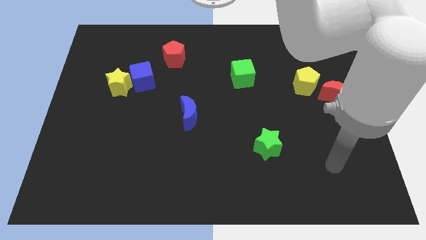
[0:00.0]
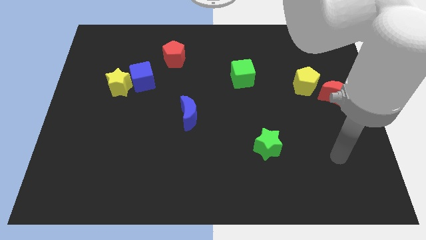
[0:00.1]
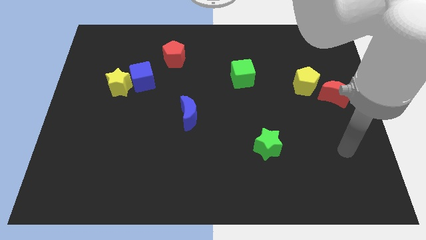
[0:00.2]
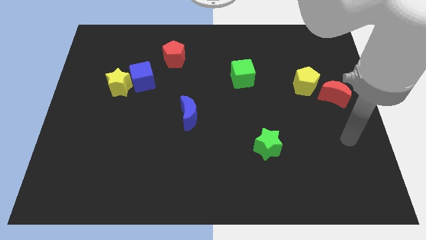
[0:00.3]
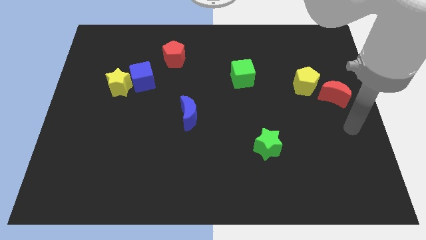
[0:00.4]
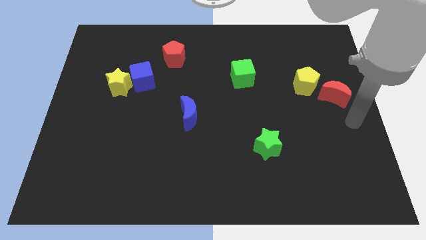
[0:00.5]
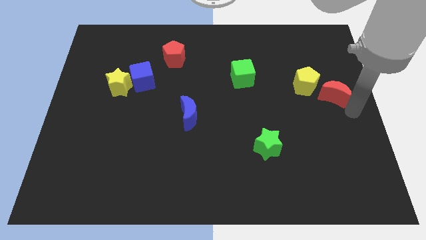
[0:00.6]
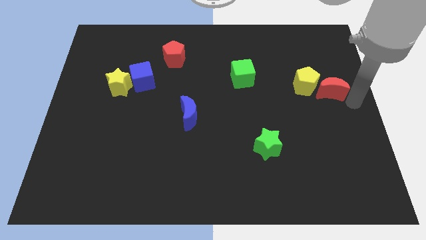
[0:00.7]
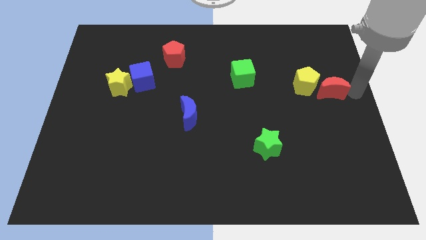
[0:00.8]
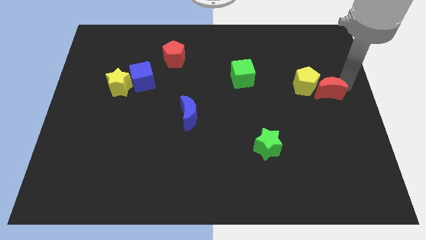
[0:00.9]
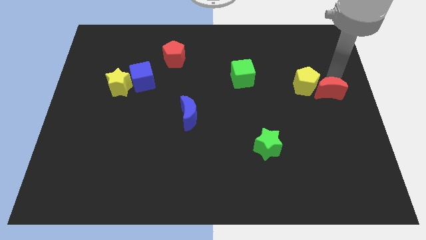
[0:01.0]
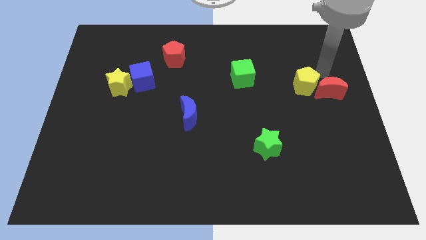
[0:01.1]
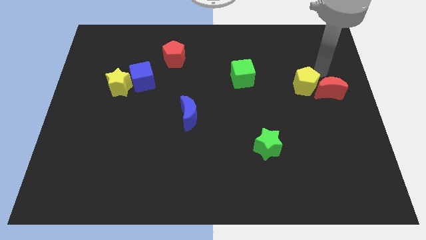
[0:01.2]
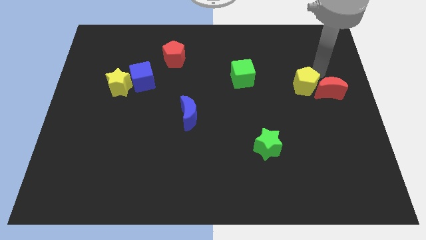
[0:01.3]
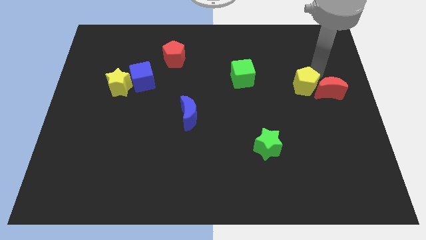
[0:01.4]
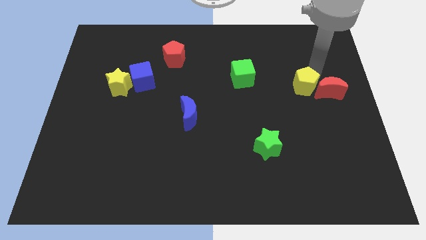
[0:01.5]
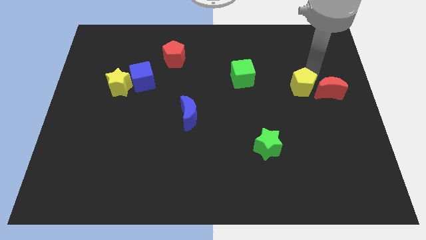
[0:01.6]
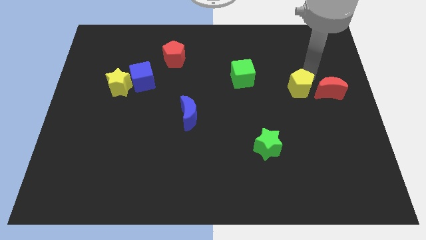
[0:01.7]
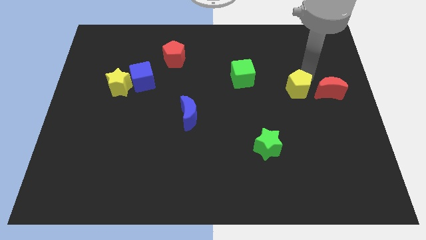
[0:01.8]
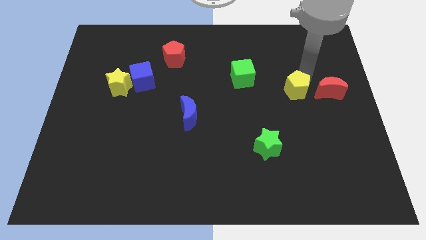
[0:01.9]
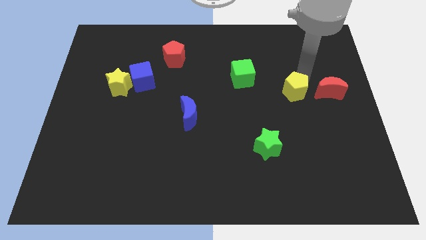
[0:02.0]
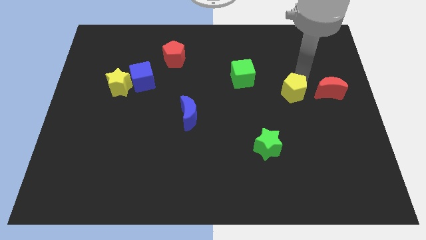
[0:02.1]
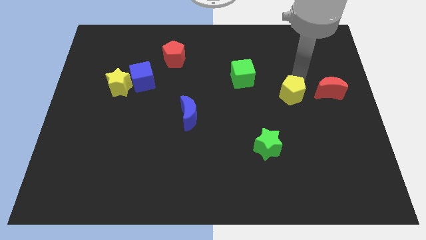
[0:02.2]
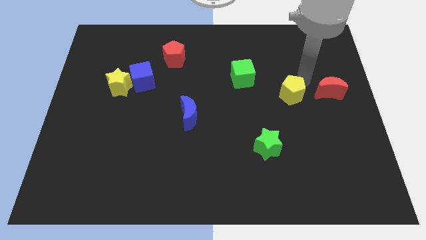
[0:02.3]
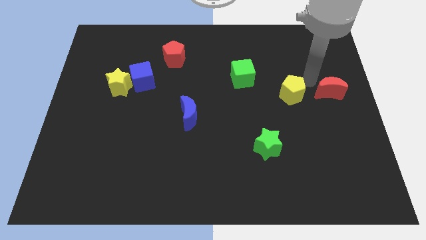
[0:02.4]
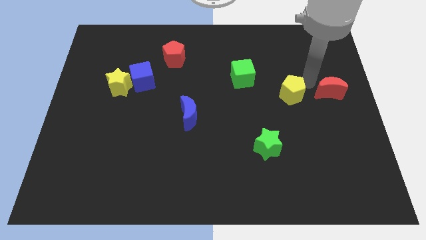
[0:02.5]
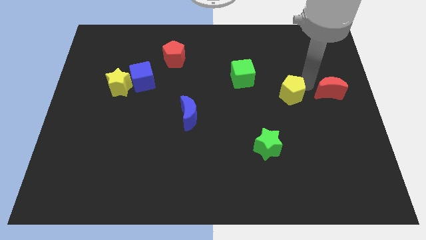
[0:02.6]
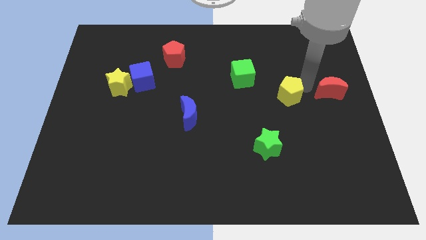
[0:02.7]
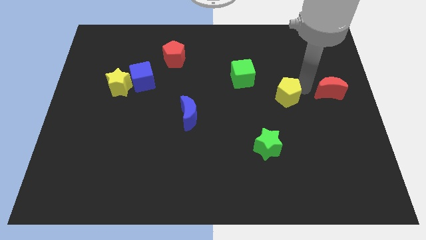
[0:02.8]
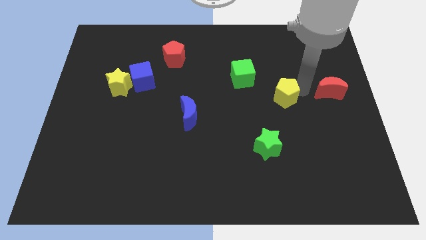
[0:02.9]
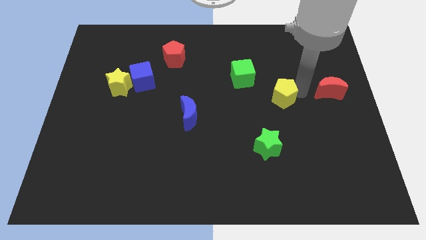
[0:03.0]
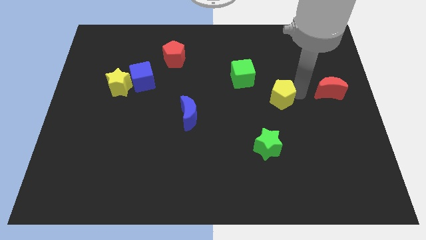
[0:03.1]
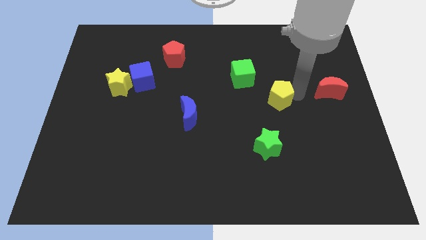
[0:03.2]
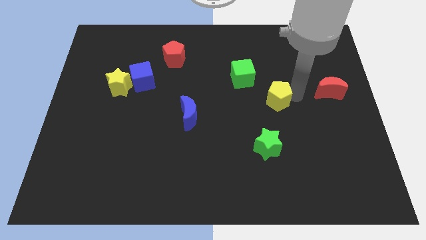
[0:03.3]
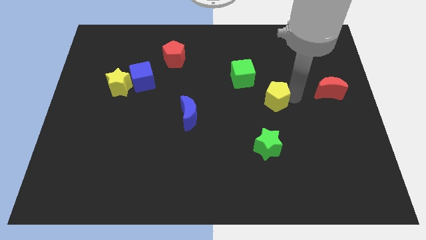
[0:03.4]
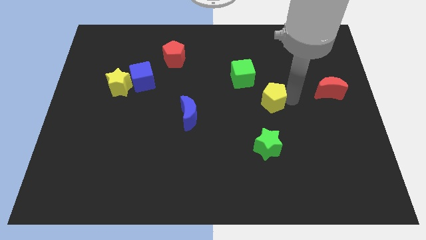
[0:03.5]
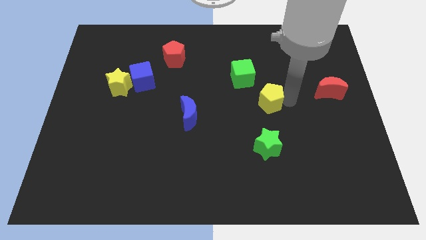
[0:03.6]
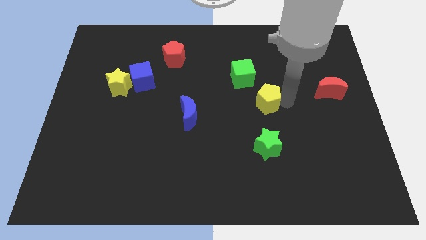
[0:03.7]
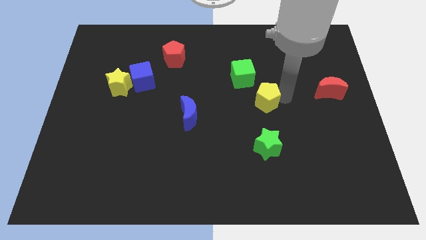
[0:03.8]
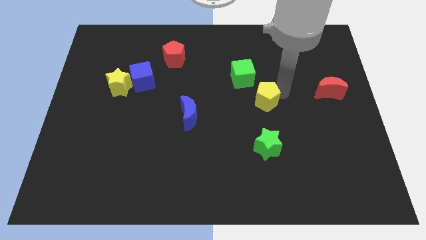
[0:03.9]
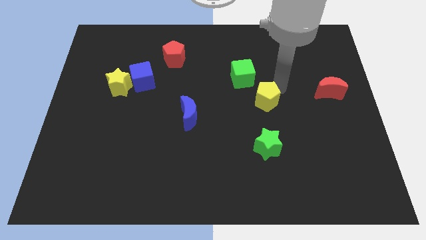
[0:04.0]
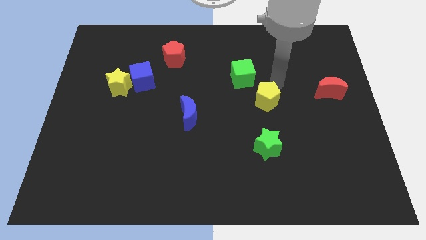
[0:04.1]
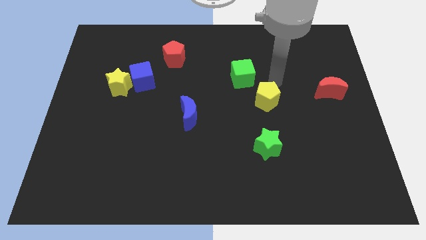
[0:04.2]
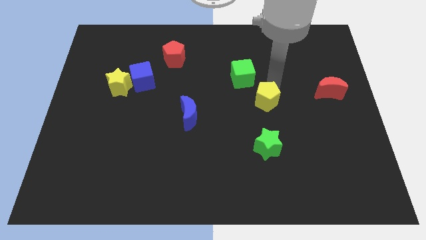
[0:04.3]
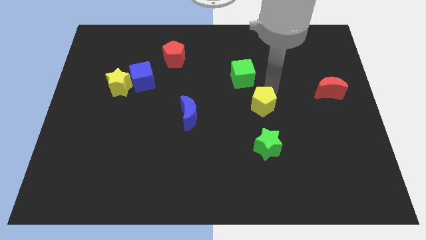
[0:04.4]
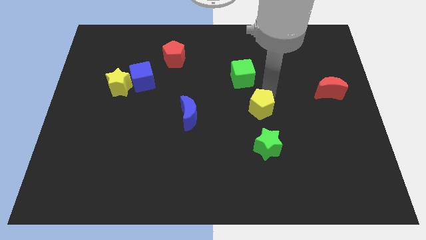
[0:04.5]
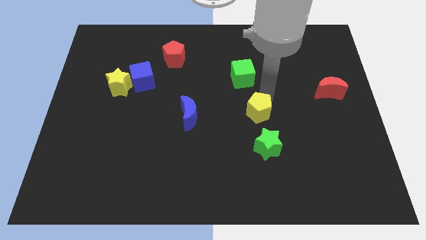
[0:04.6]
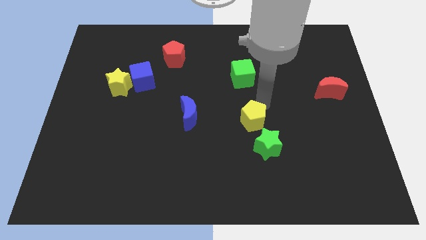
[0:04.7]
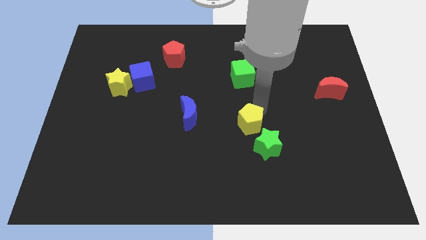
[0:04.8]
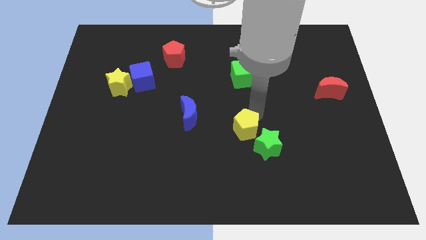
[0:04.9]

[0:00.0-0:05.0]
slide the yellow pentagon downwards and left

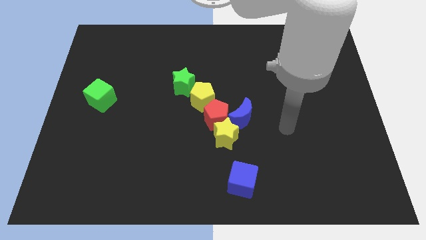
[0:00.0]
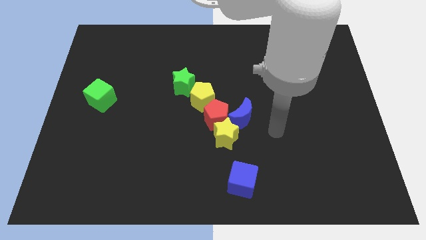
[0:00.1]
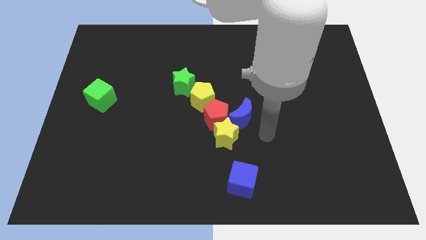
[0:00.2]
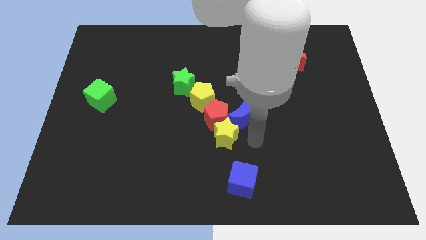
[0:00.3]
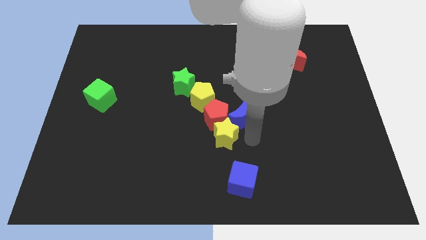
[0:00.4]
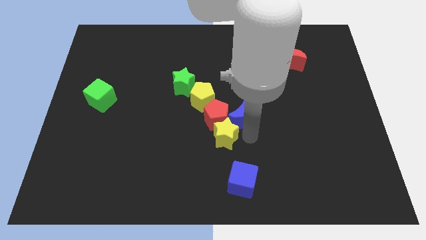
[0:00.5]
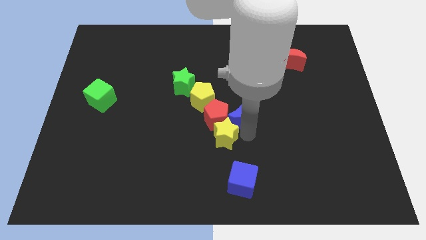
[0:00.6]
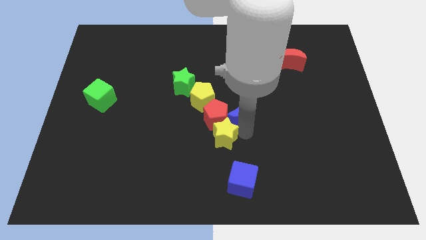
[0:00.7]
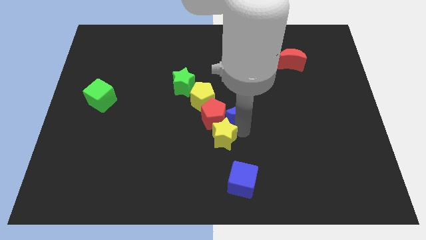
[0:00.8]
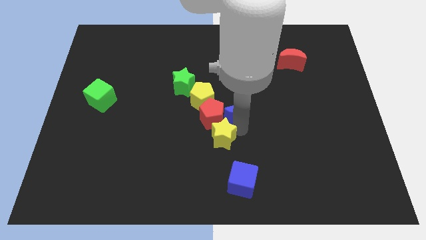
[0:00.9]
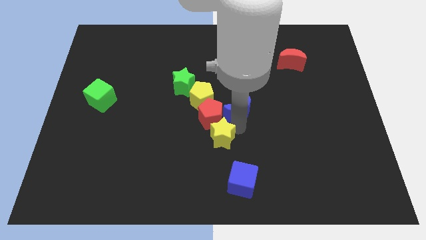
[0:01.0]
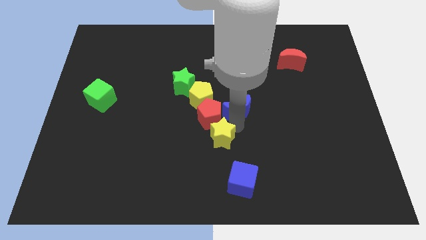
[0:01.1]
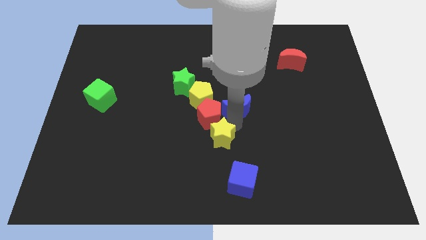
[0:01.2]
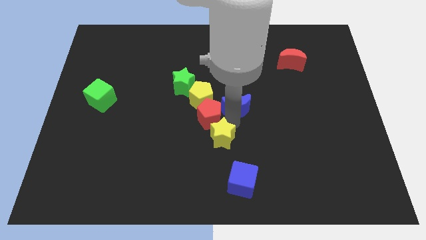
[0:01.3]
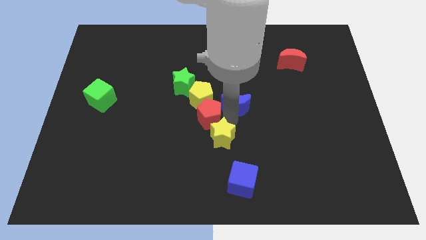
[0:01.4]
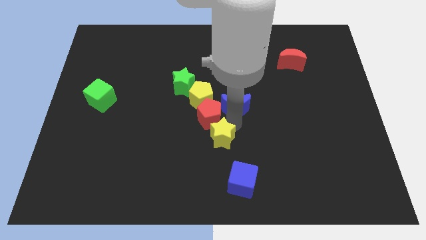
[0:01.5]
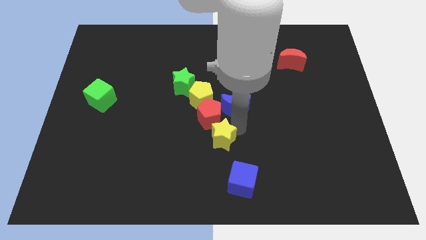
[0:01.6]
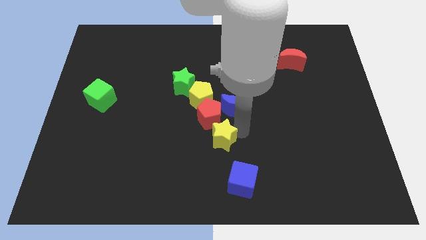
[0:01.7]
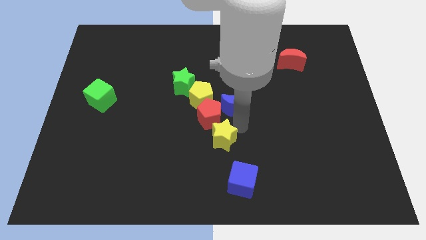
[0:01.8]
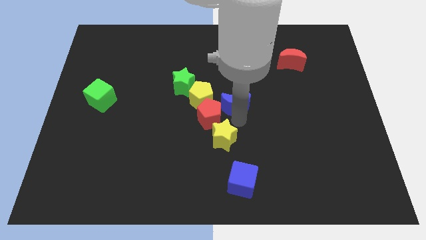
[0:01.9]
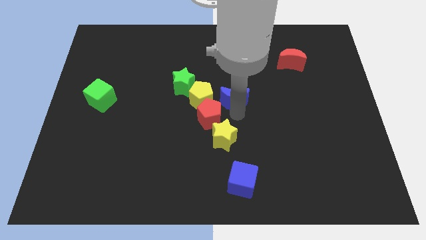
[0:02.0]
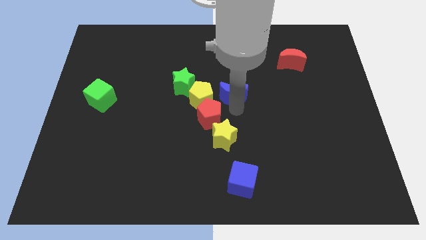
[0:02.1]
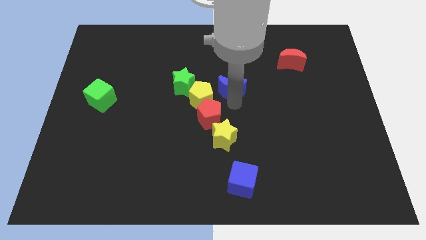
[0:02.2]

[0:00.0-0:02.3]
move the blue moon up somewhat

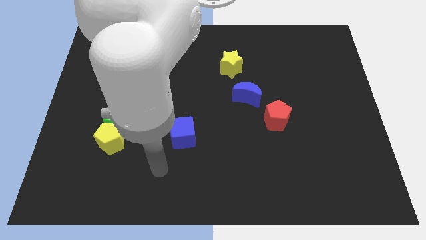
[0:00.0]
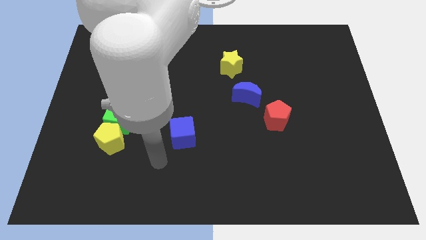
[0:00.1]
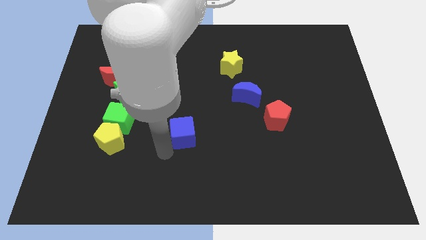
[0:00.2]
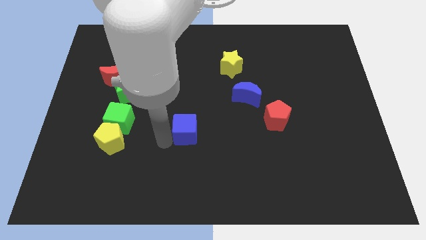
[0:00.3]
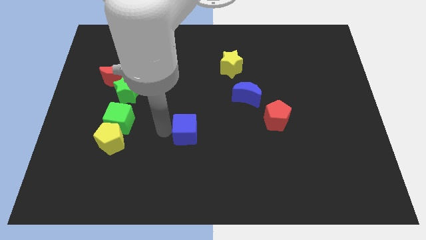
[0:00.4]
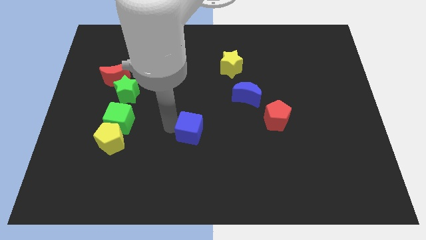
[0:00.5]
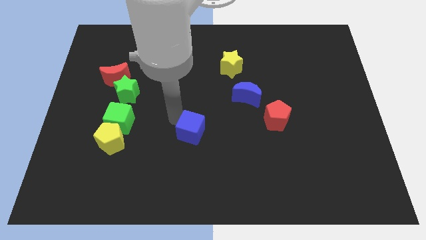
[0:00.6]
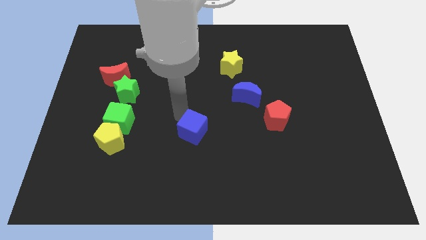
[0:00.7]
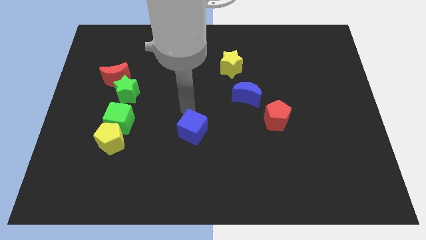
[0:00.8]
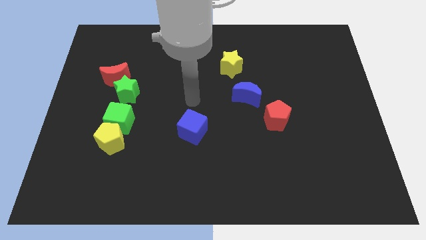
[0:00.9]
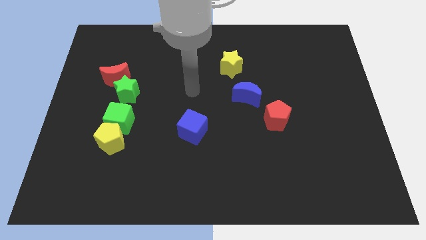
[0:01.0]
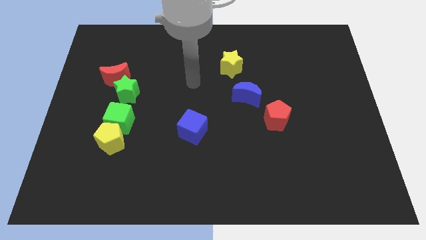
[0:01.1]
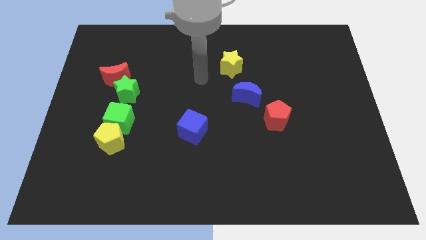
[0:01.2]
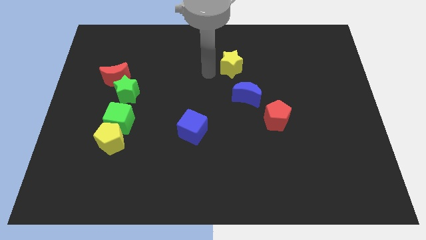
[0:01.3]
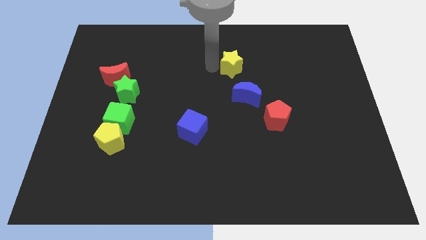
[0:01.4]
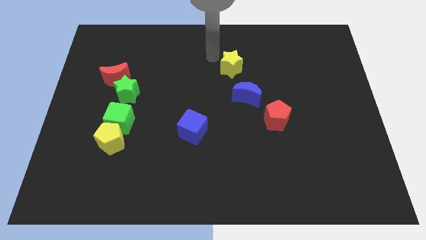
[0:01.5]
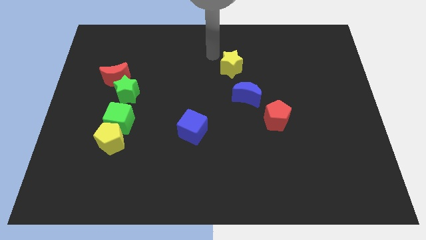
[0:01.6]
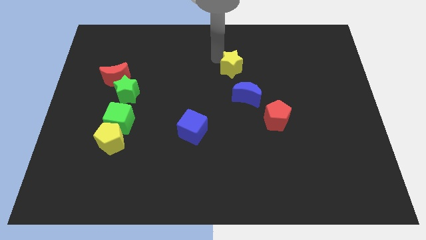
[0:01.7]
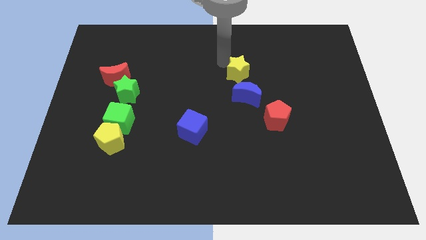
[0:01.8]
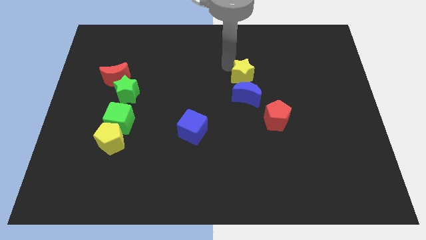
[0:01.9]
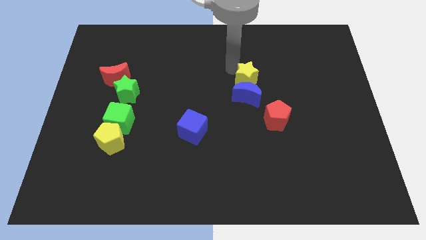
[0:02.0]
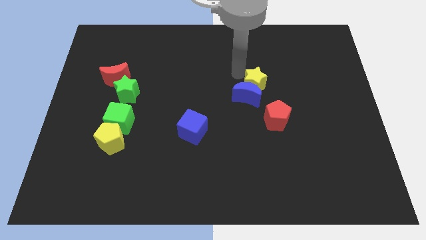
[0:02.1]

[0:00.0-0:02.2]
slightly push the yellow star downwards and to the right
